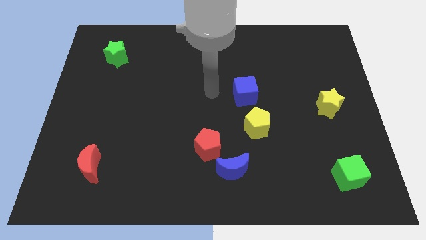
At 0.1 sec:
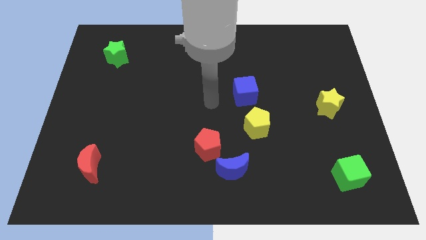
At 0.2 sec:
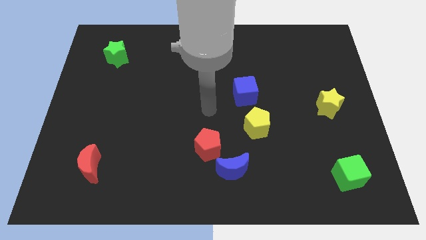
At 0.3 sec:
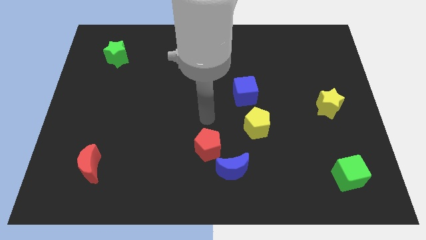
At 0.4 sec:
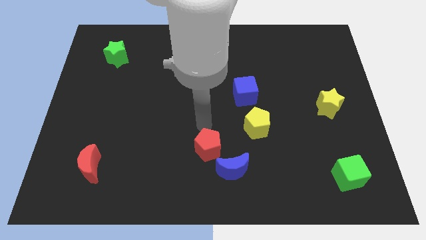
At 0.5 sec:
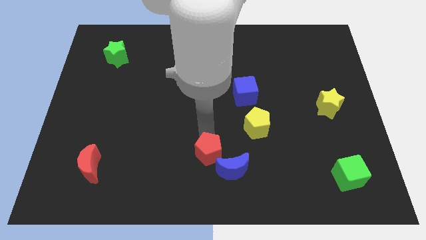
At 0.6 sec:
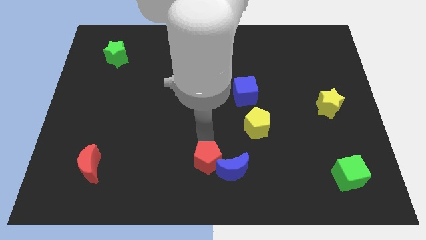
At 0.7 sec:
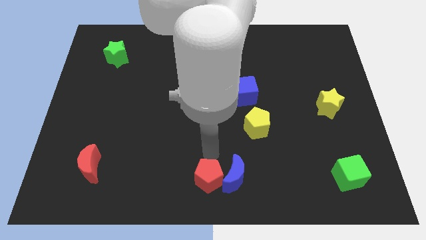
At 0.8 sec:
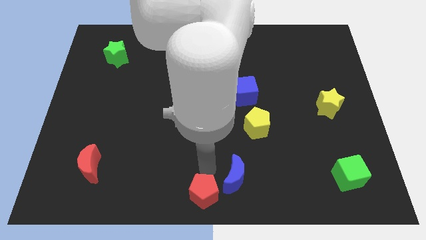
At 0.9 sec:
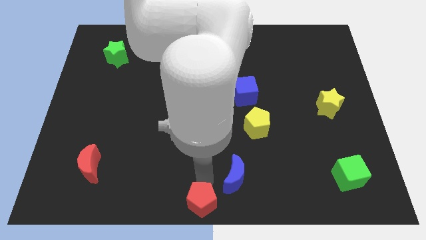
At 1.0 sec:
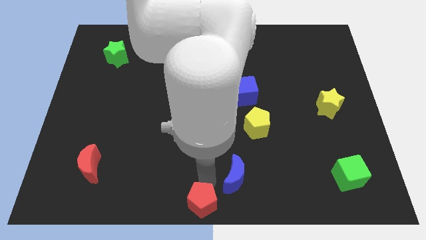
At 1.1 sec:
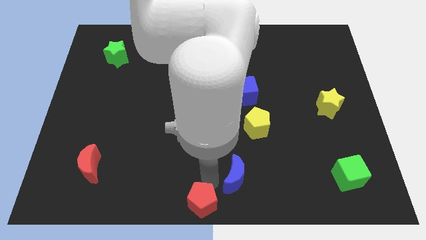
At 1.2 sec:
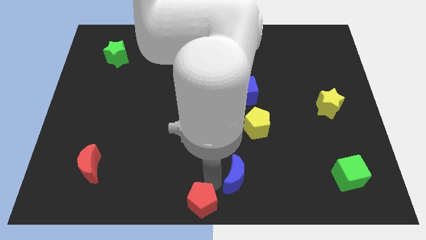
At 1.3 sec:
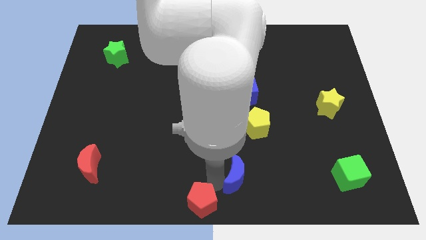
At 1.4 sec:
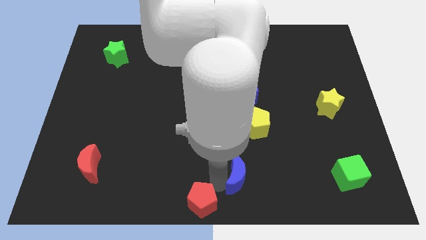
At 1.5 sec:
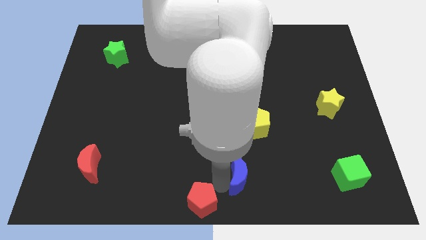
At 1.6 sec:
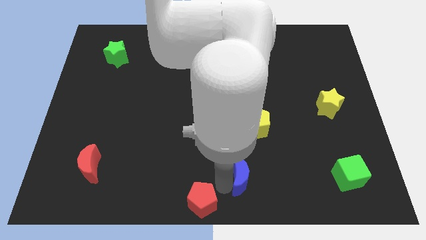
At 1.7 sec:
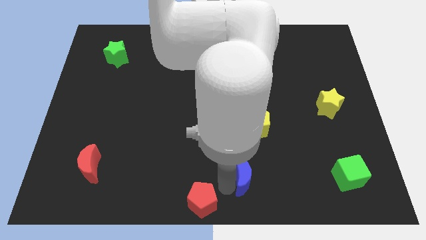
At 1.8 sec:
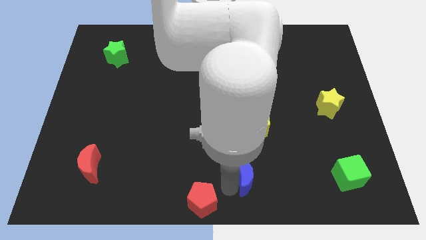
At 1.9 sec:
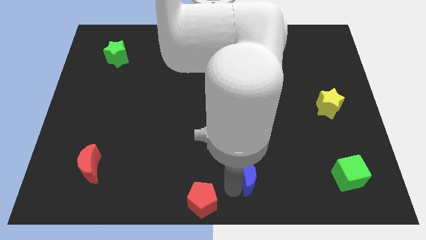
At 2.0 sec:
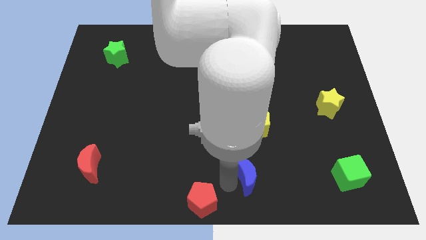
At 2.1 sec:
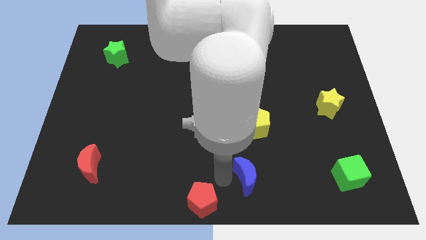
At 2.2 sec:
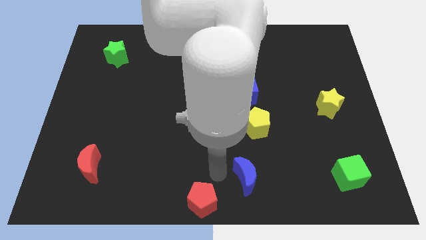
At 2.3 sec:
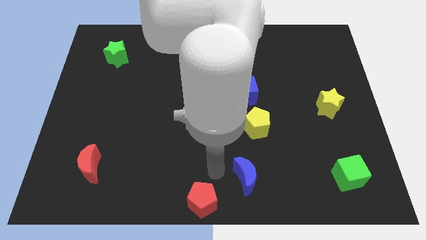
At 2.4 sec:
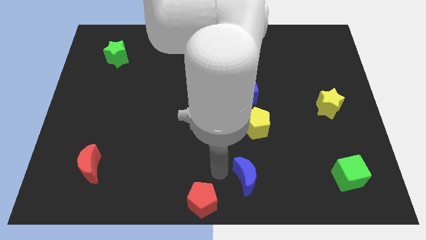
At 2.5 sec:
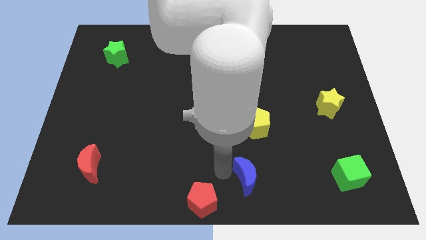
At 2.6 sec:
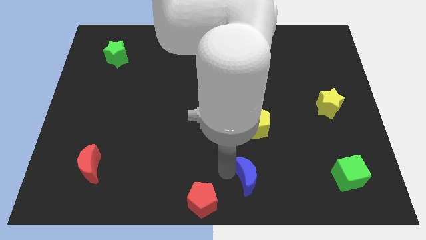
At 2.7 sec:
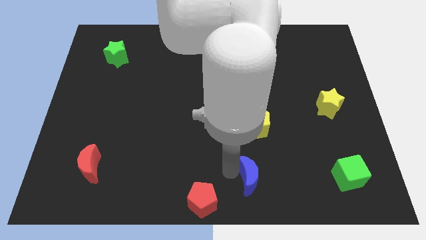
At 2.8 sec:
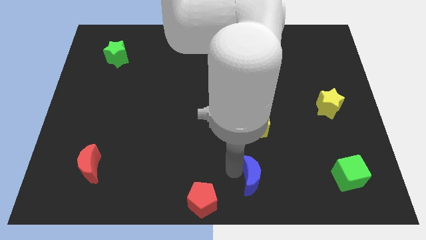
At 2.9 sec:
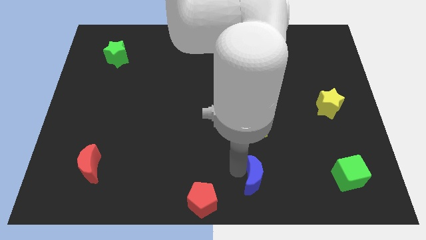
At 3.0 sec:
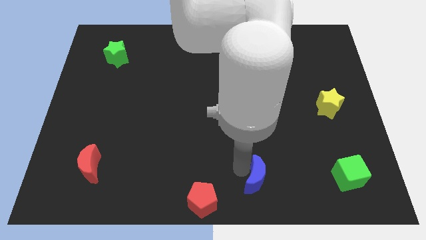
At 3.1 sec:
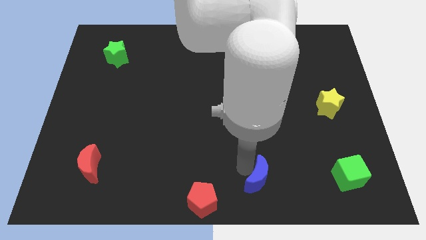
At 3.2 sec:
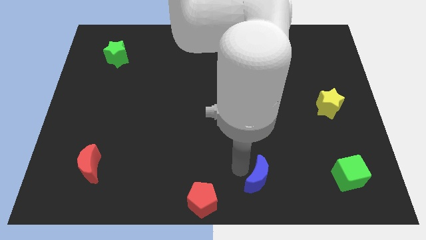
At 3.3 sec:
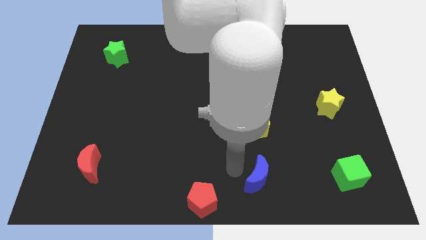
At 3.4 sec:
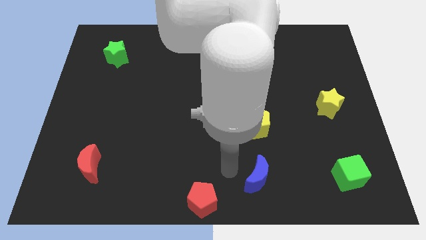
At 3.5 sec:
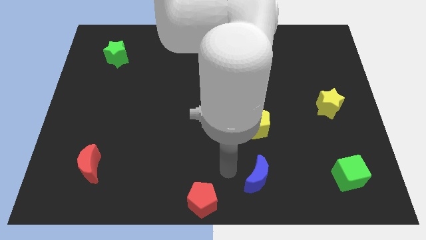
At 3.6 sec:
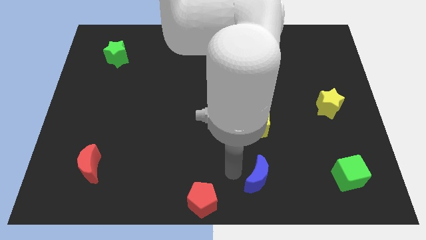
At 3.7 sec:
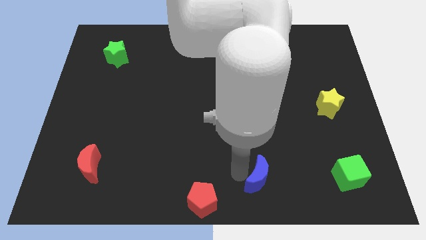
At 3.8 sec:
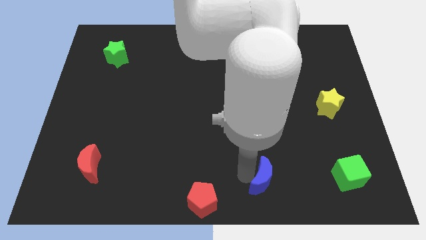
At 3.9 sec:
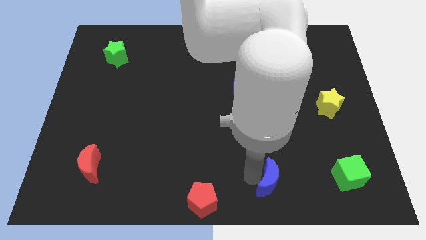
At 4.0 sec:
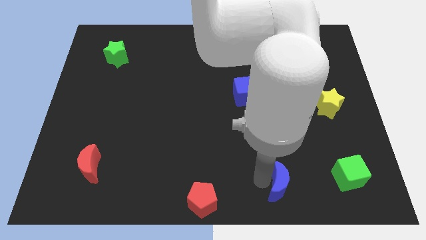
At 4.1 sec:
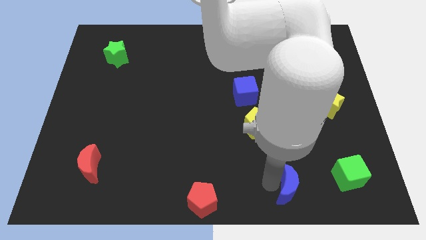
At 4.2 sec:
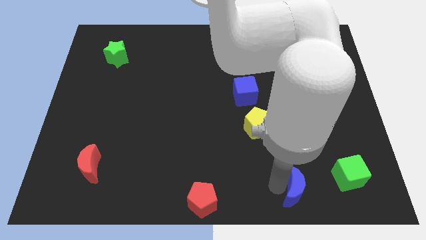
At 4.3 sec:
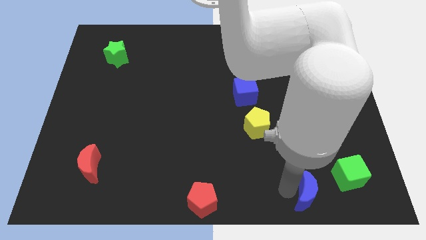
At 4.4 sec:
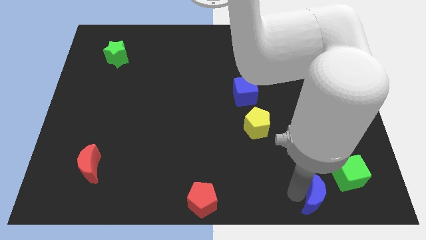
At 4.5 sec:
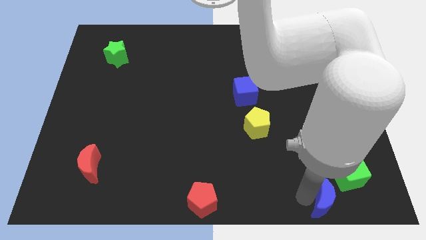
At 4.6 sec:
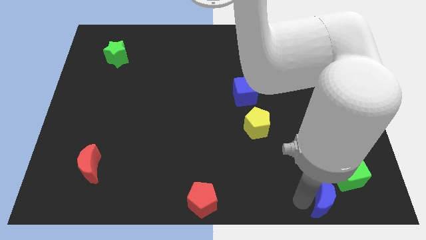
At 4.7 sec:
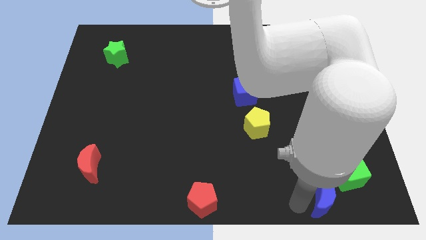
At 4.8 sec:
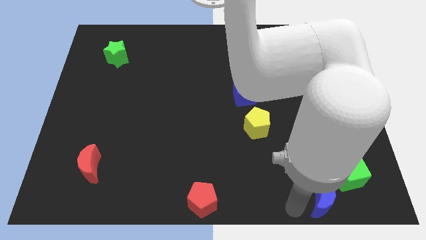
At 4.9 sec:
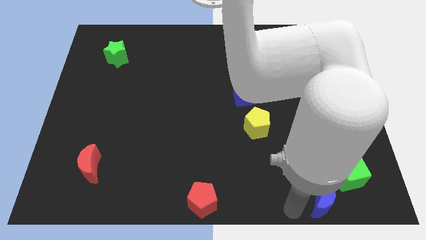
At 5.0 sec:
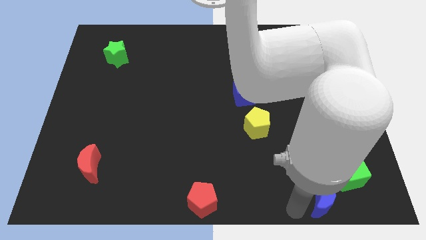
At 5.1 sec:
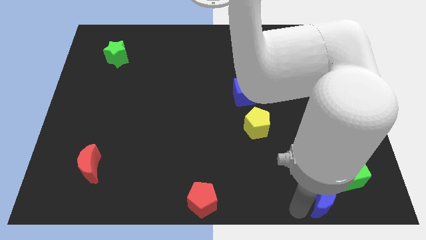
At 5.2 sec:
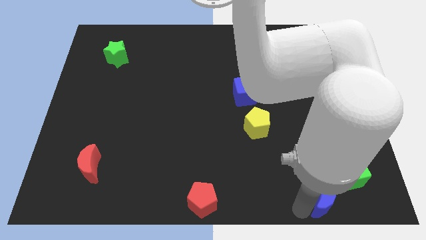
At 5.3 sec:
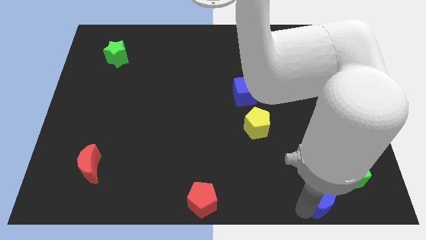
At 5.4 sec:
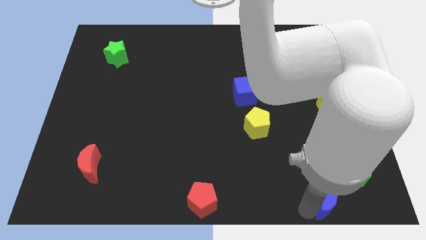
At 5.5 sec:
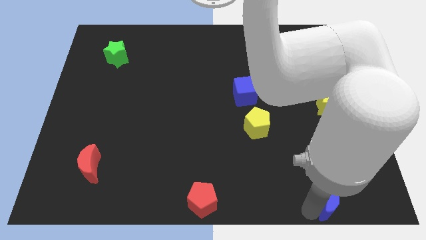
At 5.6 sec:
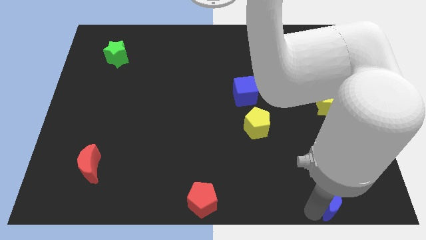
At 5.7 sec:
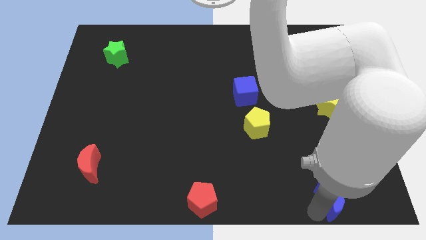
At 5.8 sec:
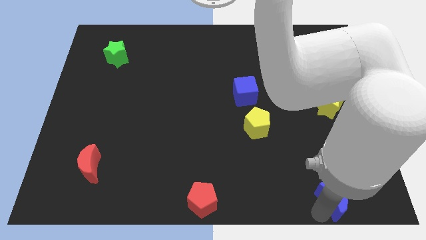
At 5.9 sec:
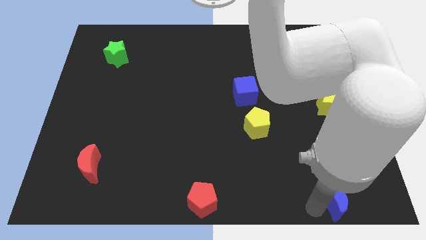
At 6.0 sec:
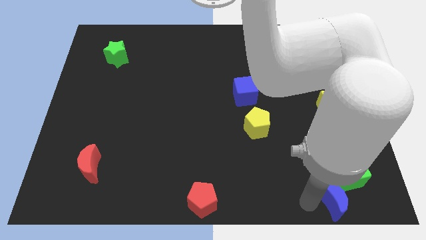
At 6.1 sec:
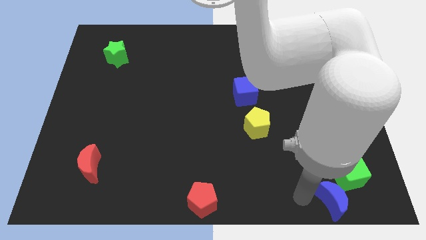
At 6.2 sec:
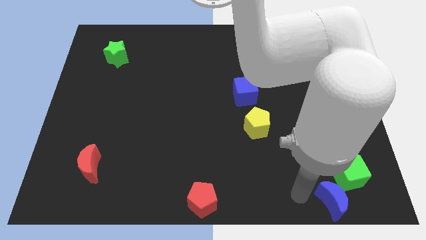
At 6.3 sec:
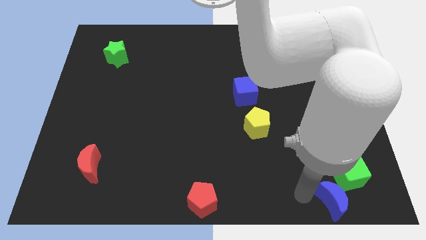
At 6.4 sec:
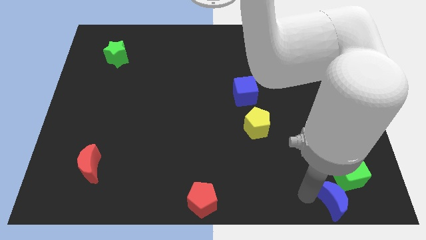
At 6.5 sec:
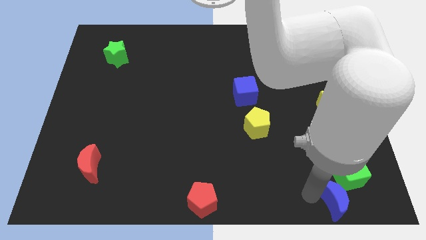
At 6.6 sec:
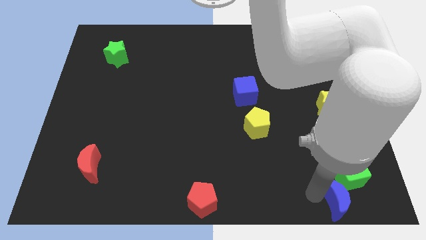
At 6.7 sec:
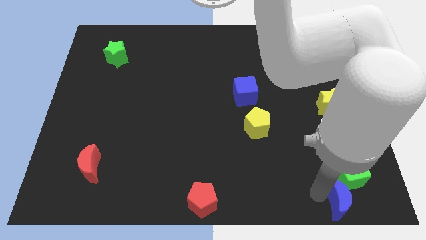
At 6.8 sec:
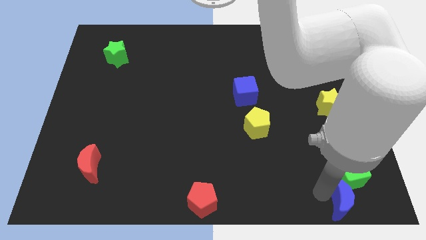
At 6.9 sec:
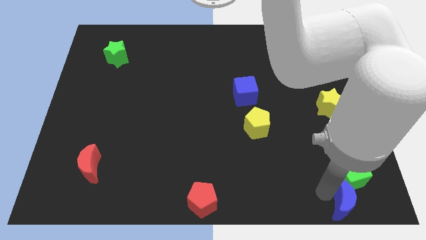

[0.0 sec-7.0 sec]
put the blue moon to the bottom right of the board
